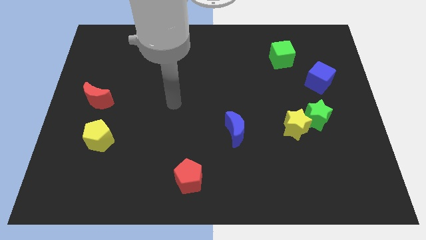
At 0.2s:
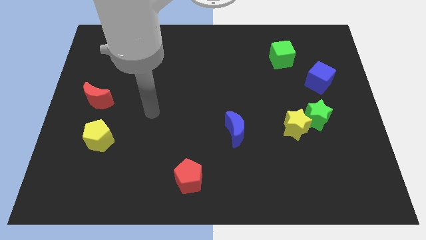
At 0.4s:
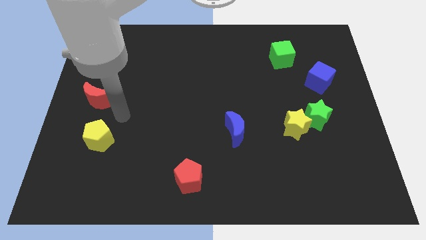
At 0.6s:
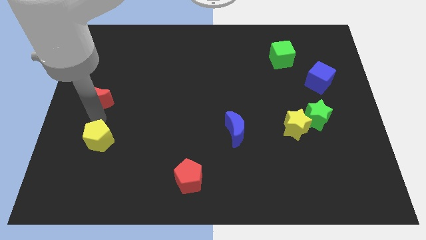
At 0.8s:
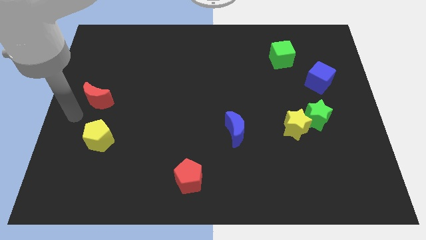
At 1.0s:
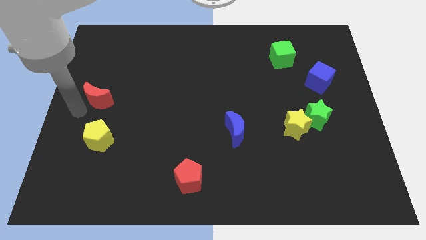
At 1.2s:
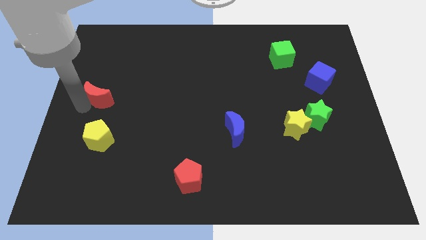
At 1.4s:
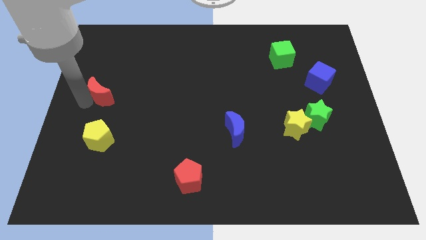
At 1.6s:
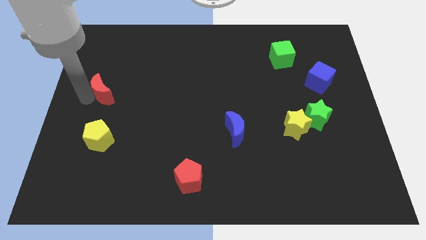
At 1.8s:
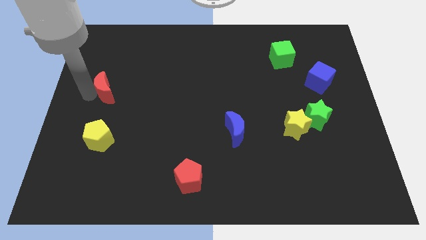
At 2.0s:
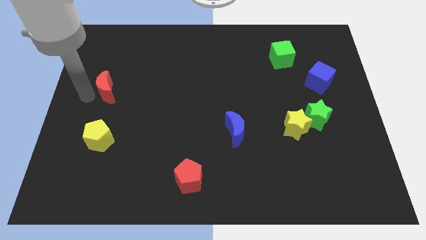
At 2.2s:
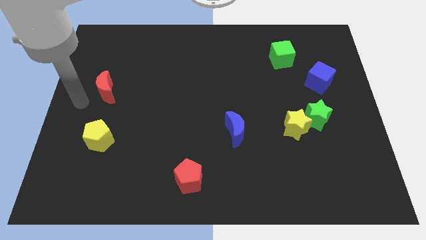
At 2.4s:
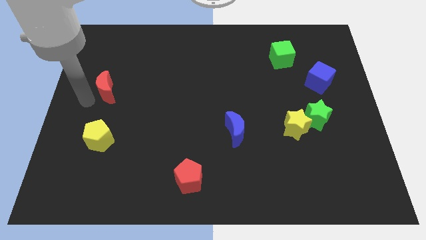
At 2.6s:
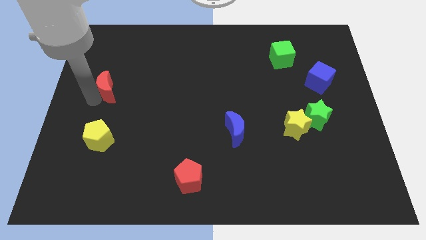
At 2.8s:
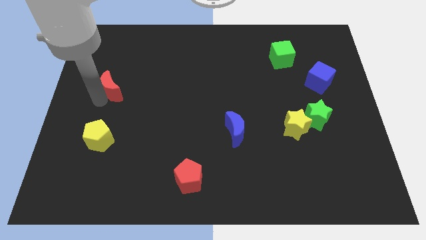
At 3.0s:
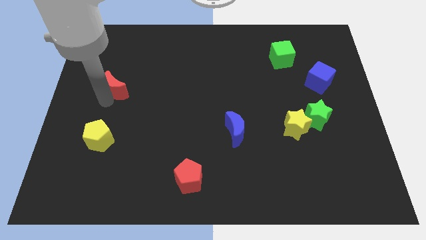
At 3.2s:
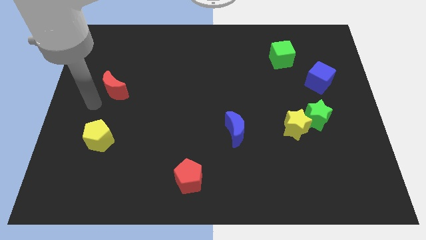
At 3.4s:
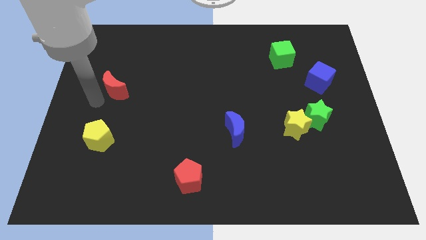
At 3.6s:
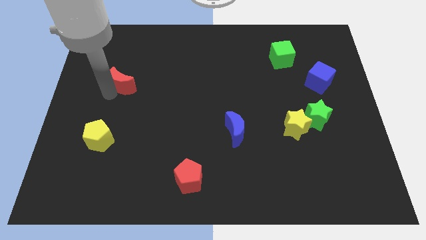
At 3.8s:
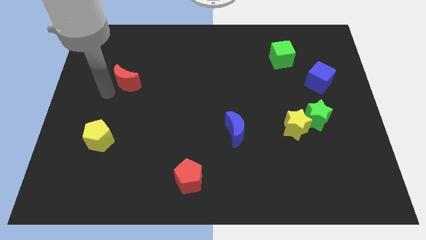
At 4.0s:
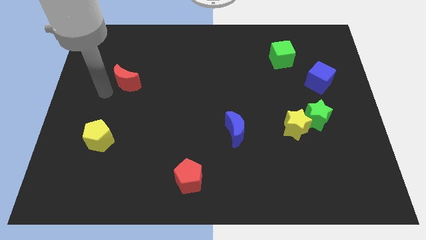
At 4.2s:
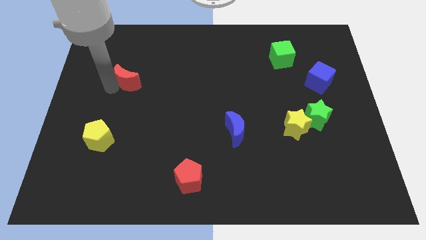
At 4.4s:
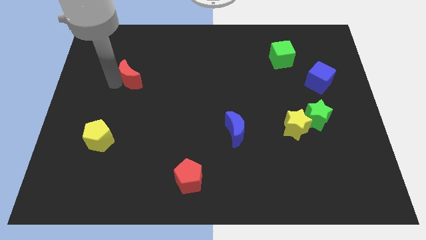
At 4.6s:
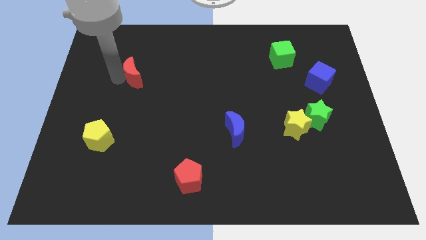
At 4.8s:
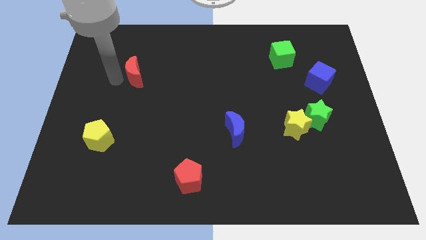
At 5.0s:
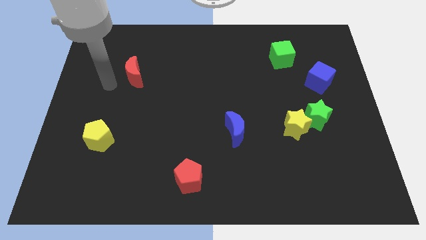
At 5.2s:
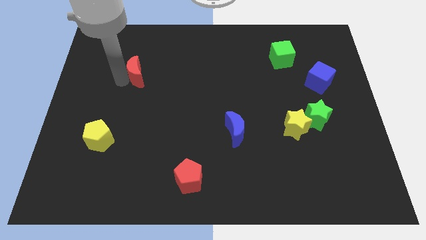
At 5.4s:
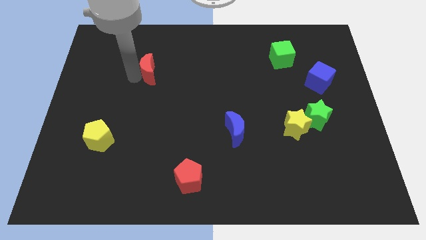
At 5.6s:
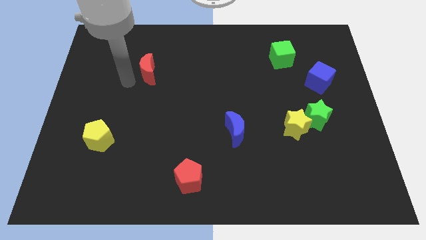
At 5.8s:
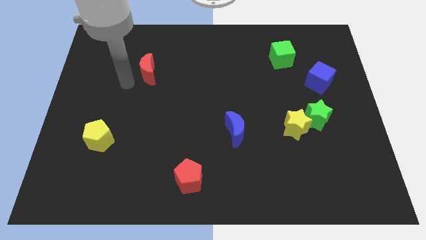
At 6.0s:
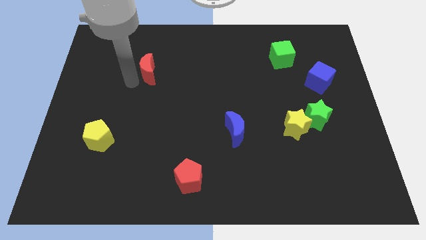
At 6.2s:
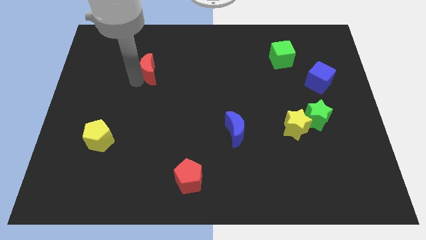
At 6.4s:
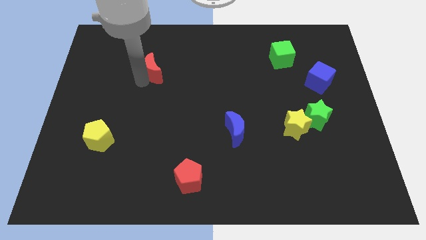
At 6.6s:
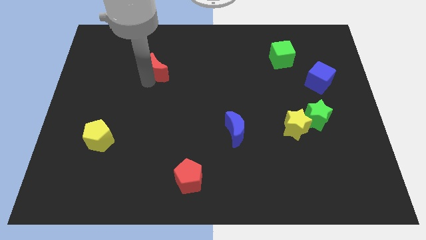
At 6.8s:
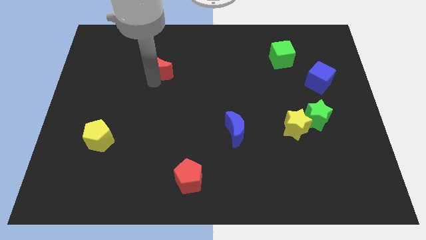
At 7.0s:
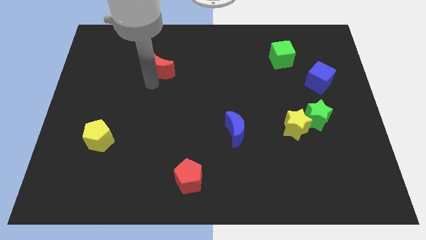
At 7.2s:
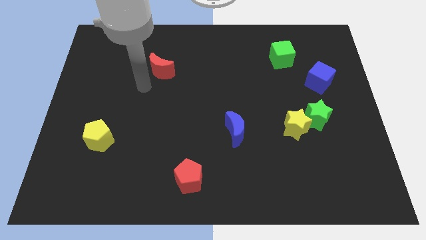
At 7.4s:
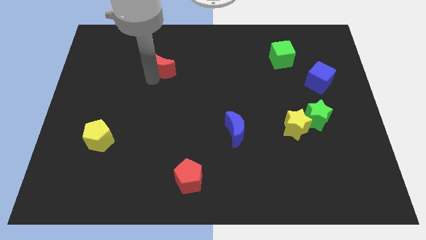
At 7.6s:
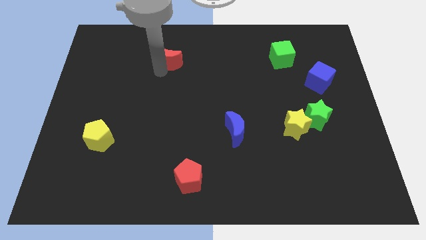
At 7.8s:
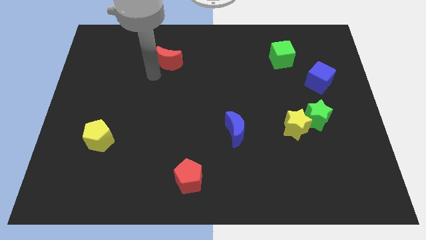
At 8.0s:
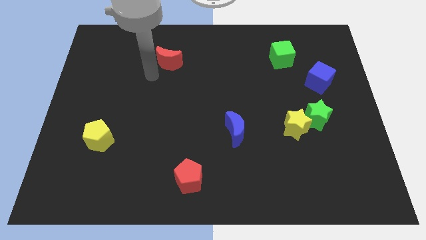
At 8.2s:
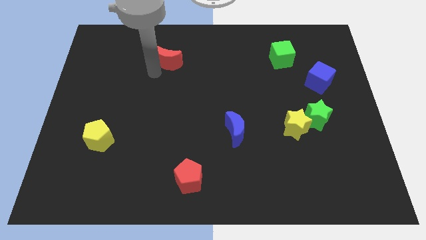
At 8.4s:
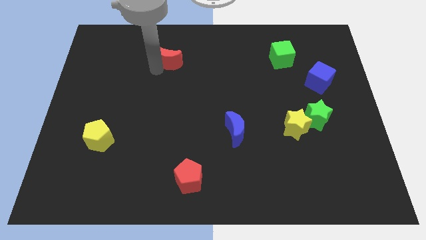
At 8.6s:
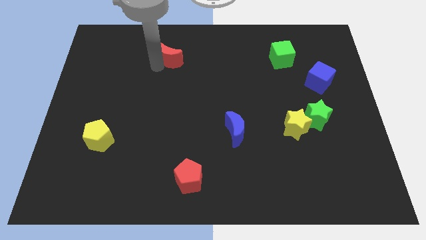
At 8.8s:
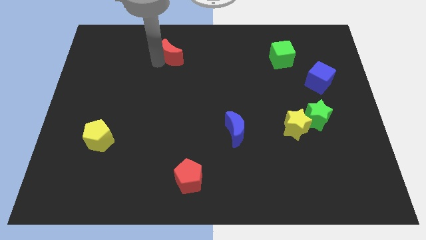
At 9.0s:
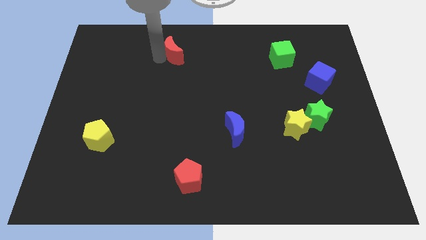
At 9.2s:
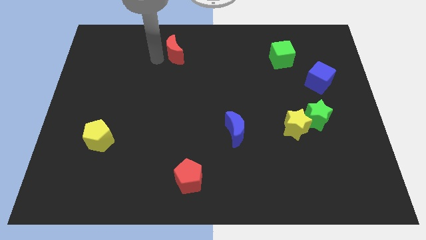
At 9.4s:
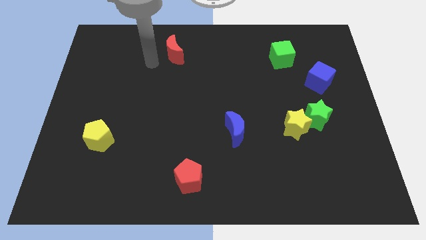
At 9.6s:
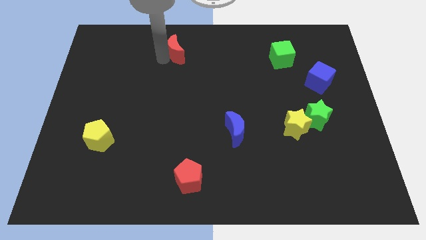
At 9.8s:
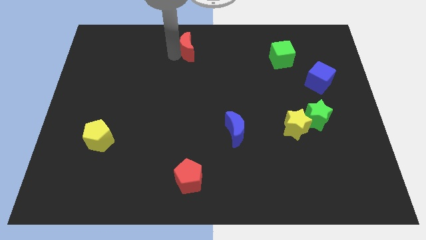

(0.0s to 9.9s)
push the red moon to the towards your base

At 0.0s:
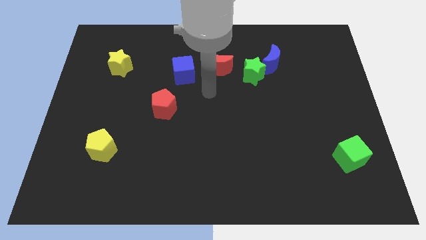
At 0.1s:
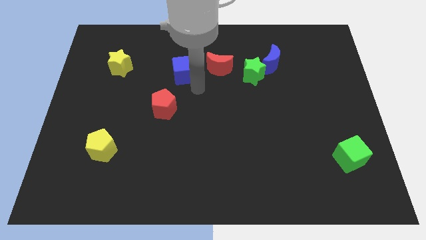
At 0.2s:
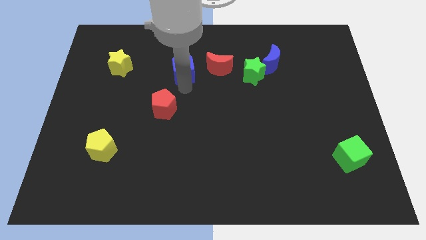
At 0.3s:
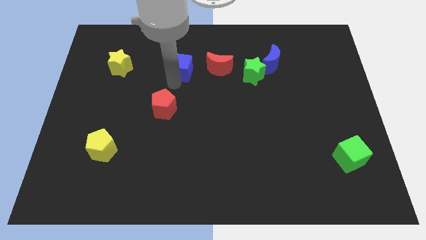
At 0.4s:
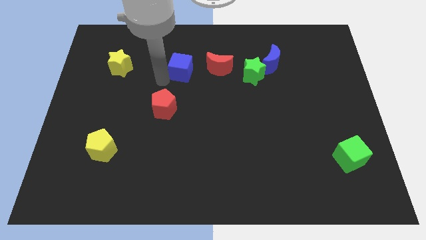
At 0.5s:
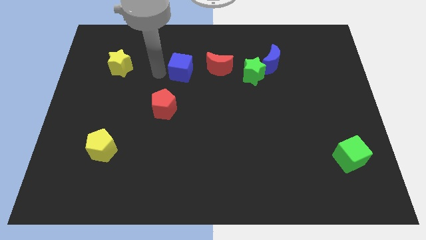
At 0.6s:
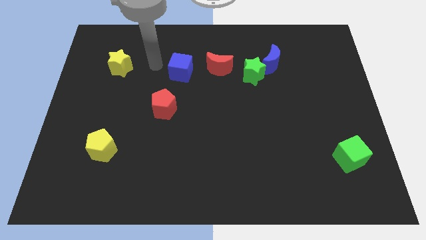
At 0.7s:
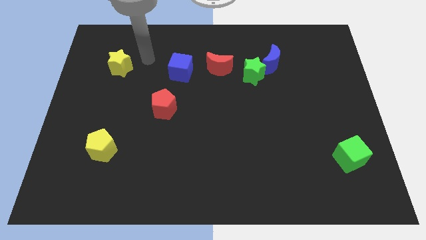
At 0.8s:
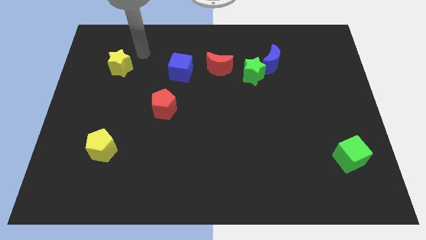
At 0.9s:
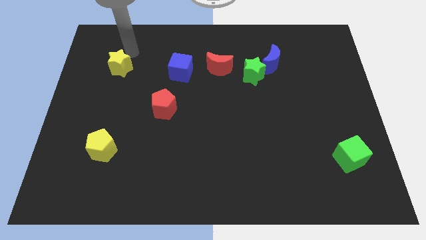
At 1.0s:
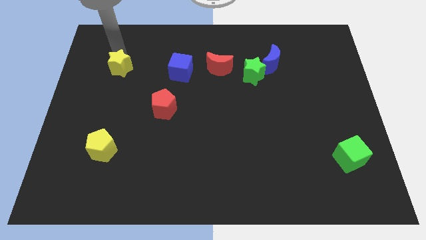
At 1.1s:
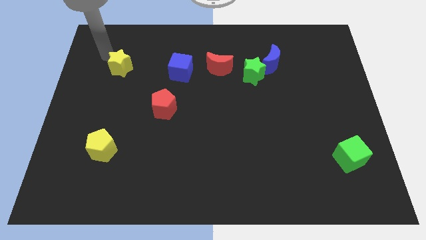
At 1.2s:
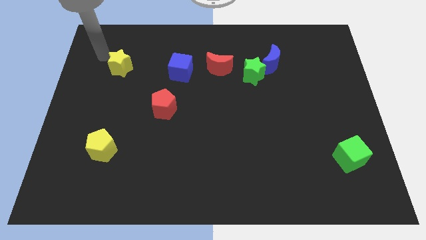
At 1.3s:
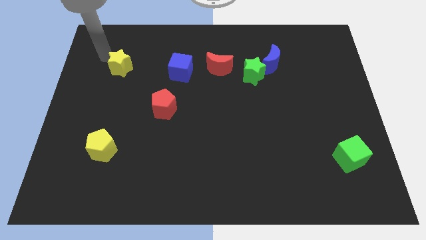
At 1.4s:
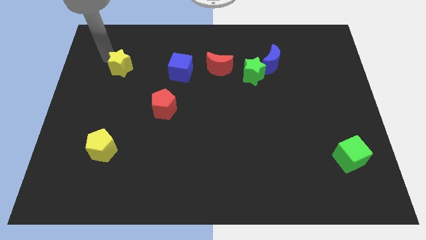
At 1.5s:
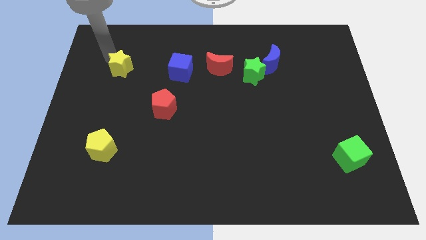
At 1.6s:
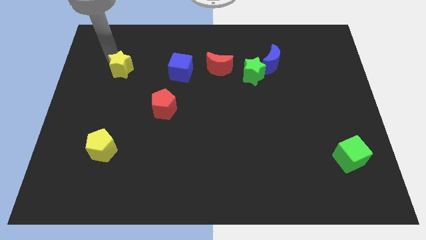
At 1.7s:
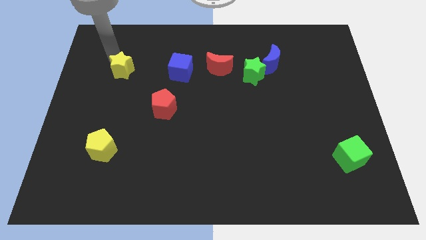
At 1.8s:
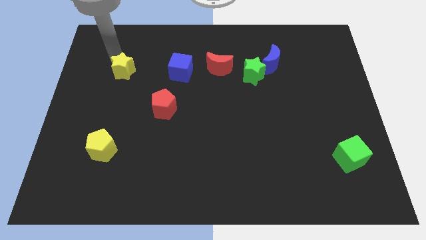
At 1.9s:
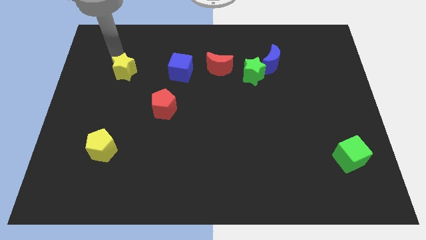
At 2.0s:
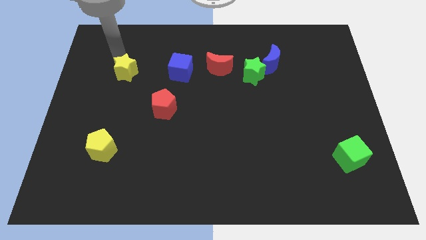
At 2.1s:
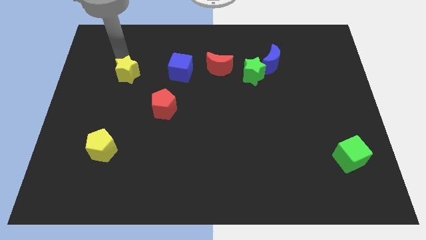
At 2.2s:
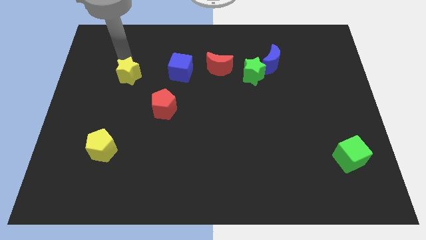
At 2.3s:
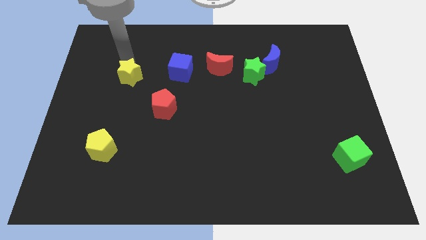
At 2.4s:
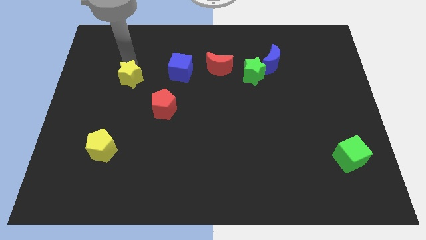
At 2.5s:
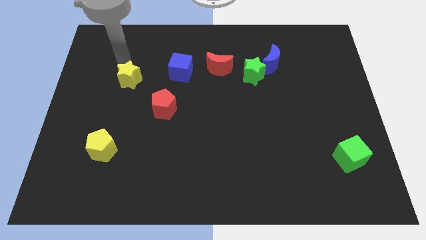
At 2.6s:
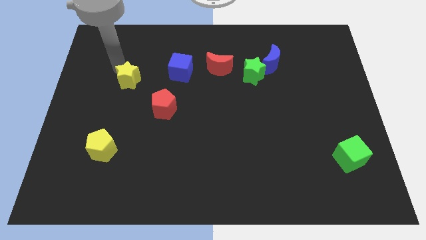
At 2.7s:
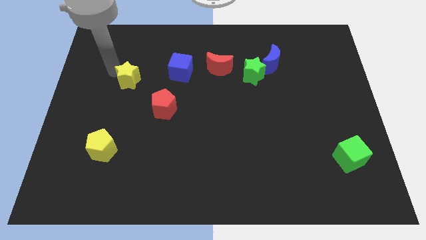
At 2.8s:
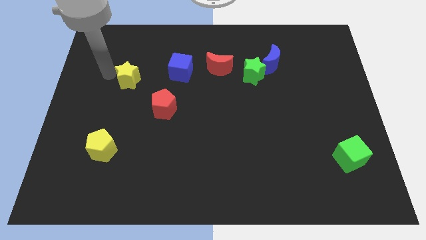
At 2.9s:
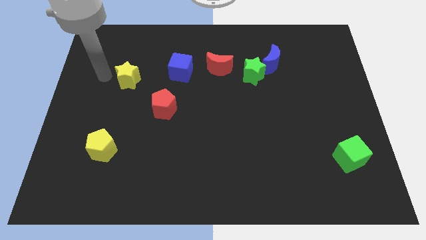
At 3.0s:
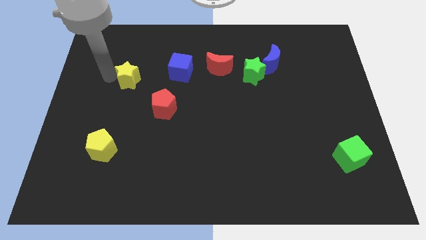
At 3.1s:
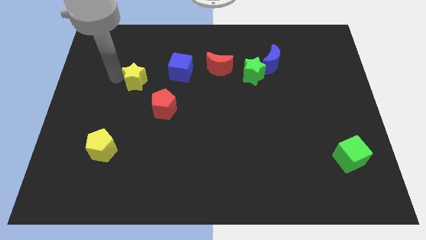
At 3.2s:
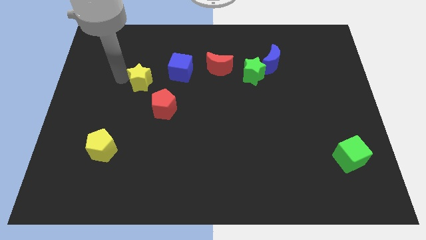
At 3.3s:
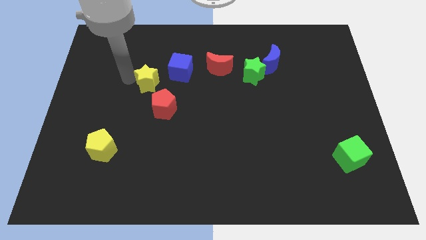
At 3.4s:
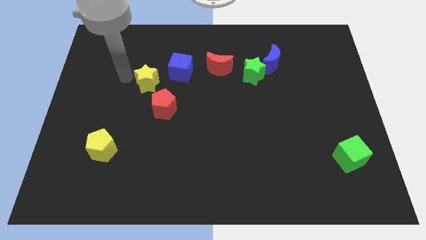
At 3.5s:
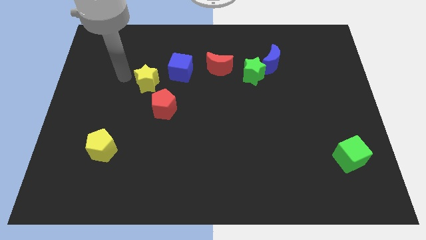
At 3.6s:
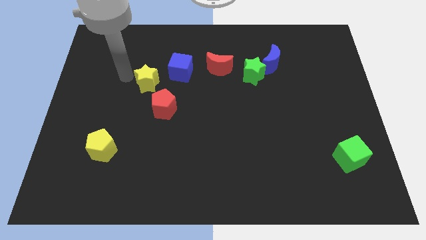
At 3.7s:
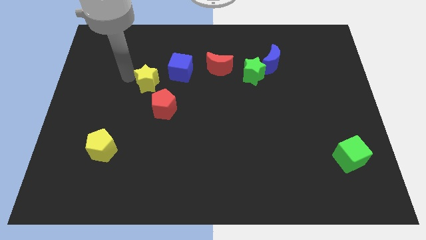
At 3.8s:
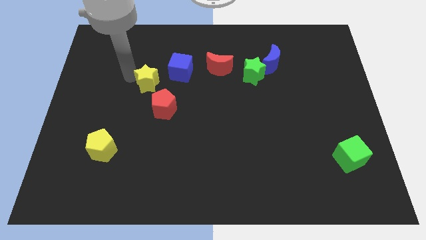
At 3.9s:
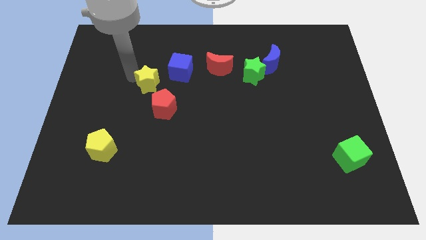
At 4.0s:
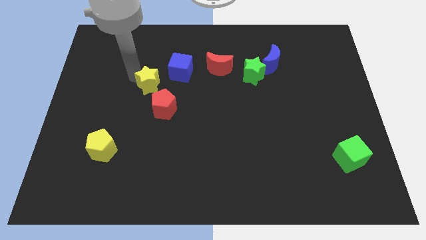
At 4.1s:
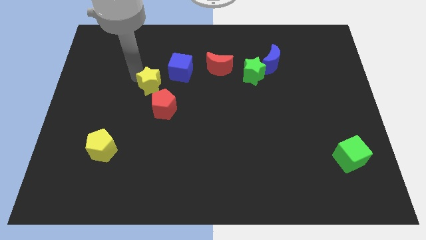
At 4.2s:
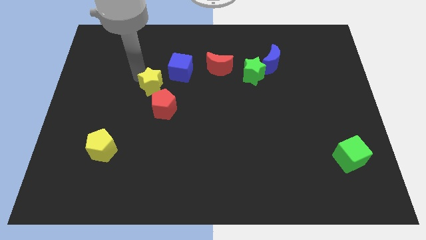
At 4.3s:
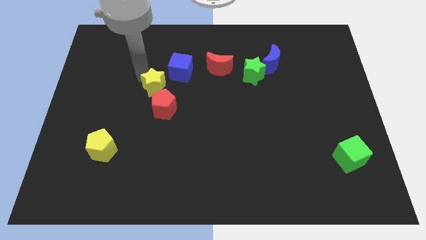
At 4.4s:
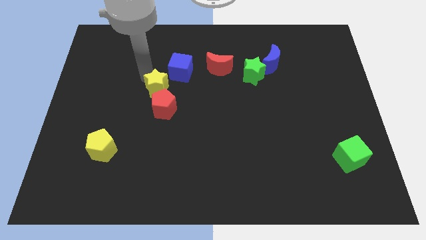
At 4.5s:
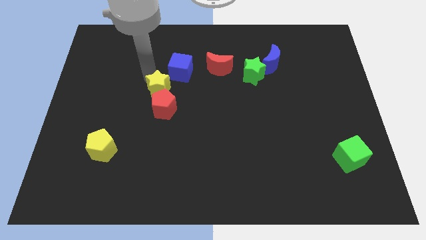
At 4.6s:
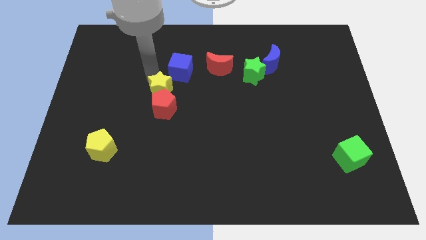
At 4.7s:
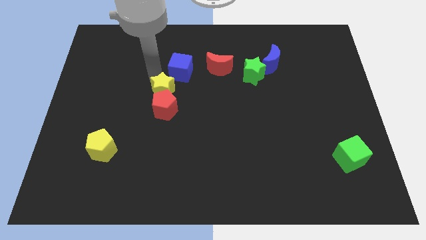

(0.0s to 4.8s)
slide the yellow star to the center
